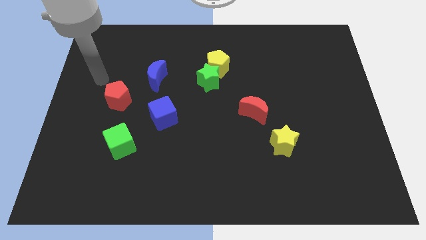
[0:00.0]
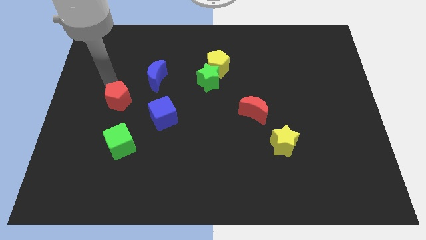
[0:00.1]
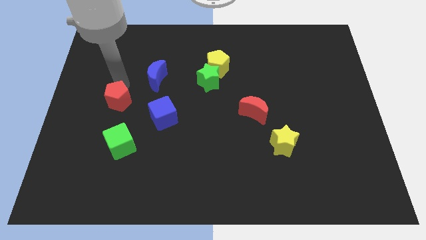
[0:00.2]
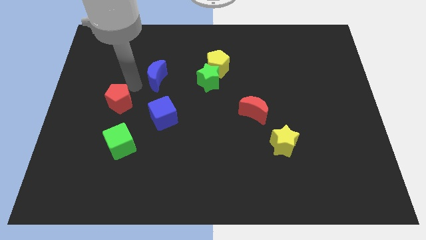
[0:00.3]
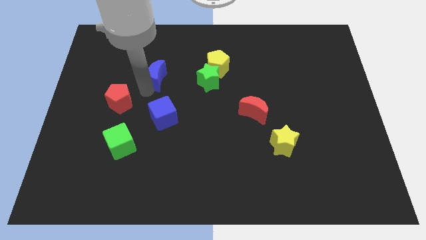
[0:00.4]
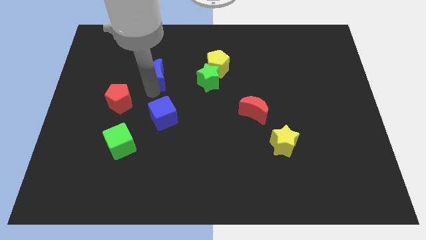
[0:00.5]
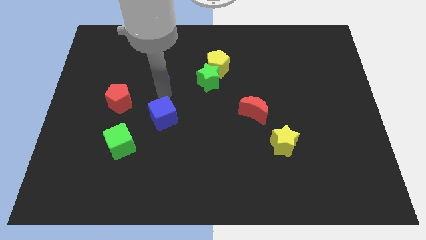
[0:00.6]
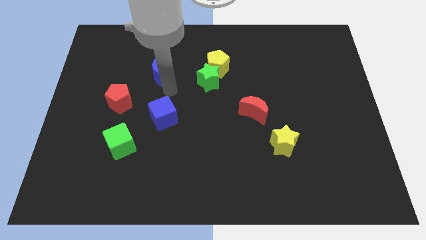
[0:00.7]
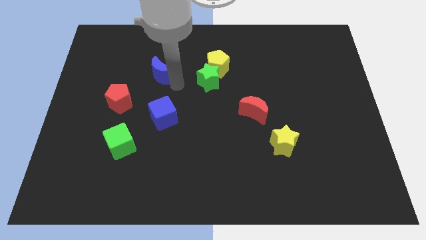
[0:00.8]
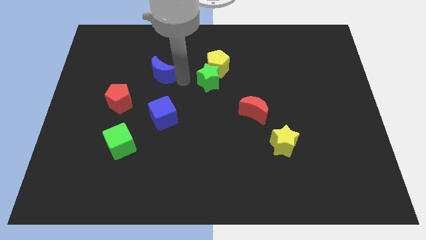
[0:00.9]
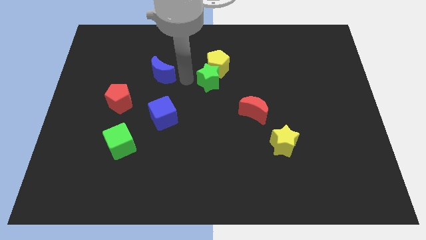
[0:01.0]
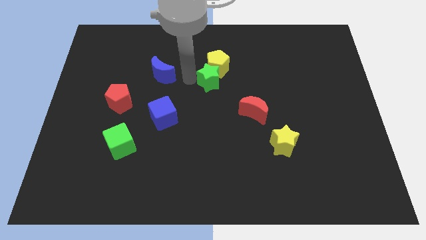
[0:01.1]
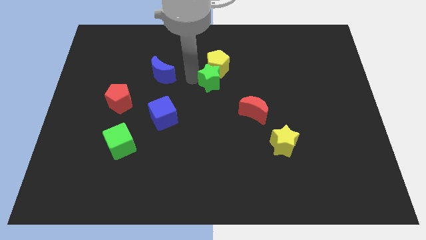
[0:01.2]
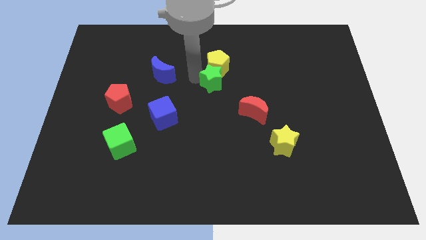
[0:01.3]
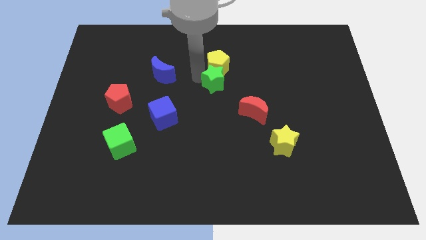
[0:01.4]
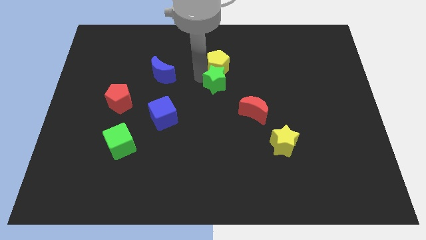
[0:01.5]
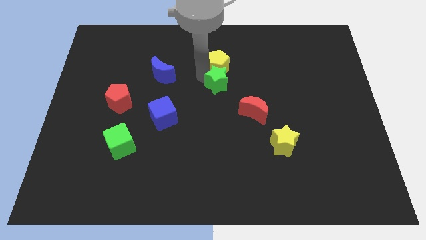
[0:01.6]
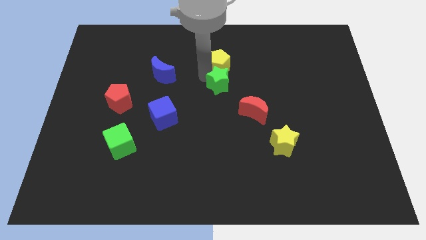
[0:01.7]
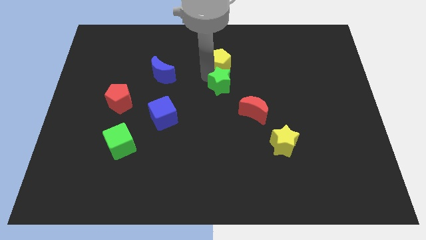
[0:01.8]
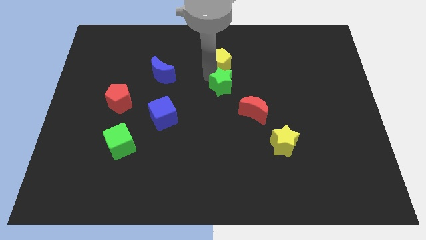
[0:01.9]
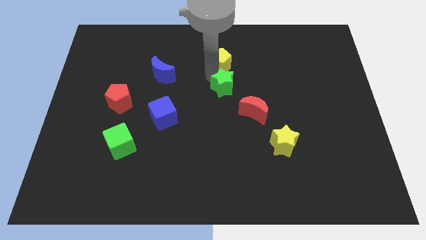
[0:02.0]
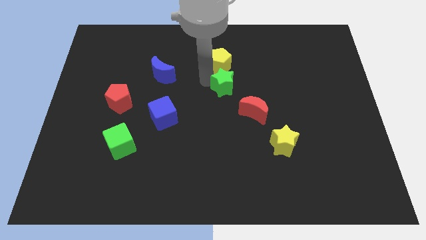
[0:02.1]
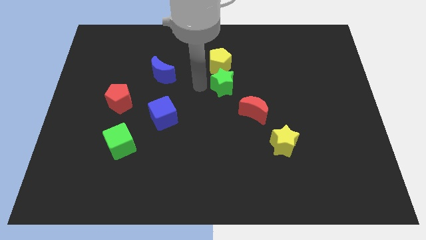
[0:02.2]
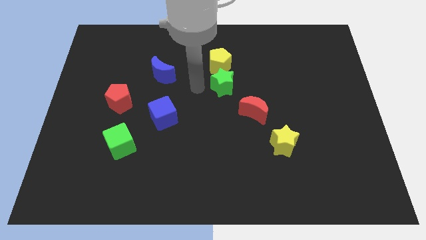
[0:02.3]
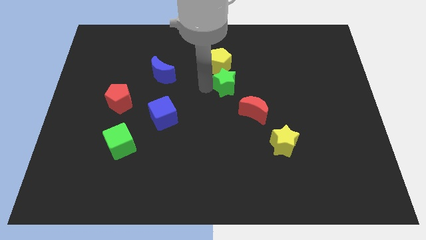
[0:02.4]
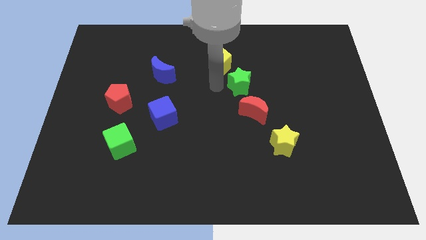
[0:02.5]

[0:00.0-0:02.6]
slightly move the green star to the right

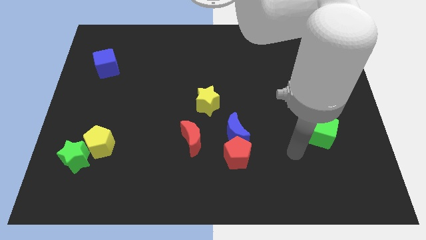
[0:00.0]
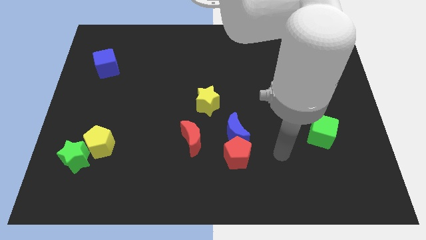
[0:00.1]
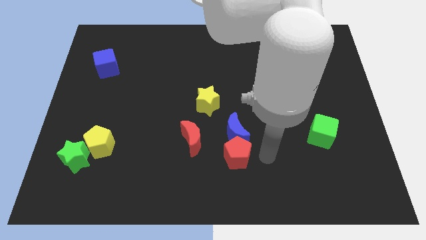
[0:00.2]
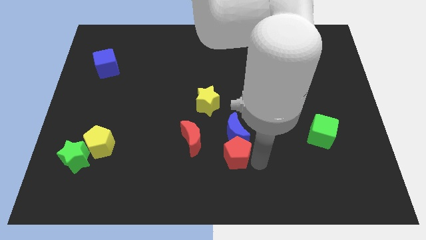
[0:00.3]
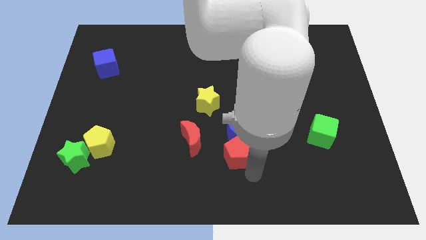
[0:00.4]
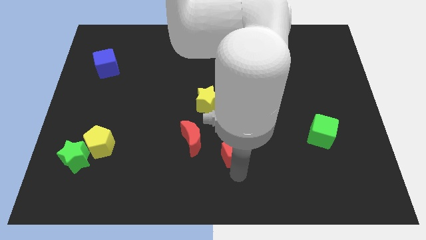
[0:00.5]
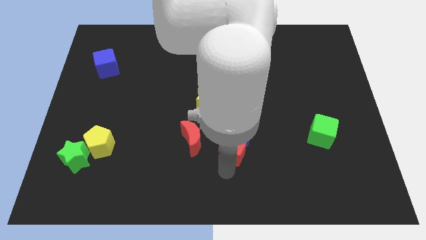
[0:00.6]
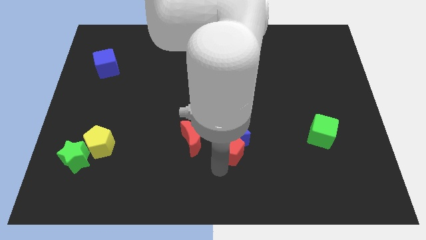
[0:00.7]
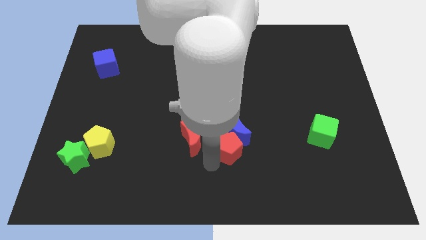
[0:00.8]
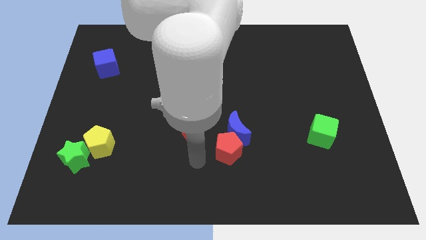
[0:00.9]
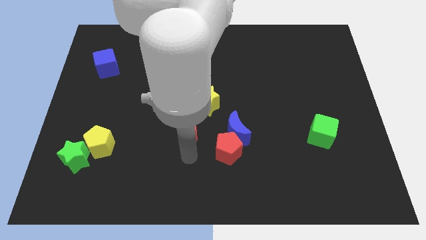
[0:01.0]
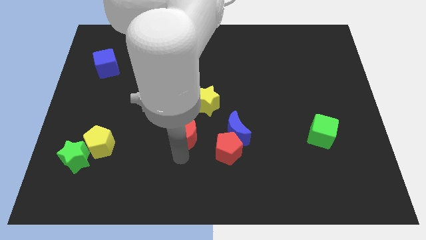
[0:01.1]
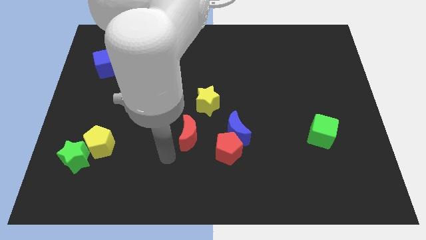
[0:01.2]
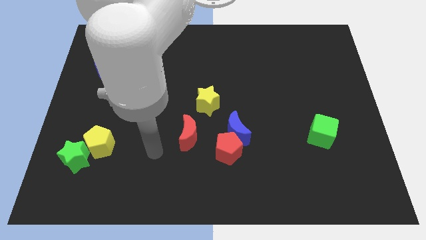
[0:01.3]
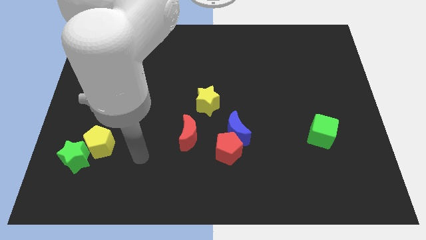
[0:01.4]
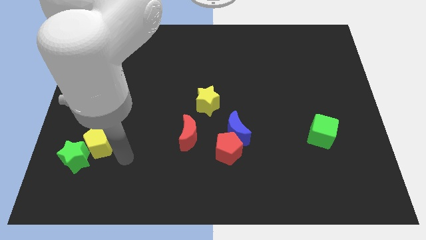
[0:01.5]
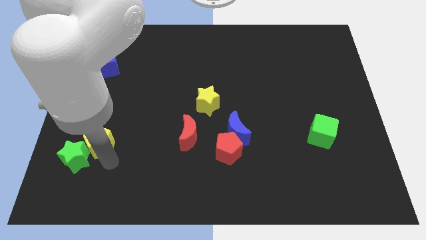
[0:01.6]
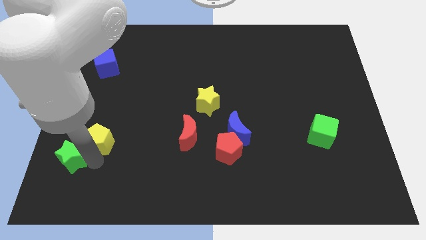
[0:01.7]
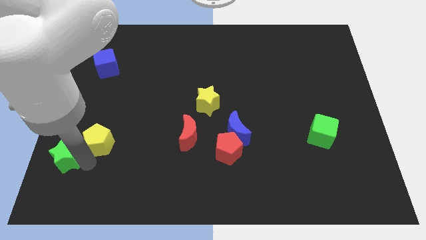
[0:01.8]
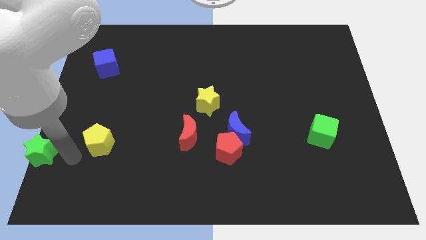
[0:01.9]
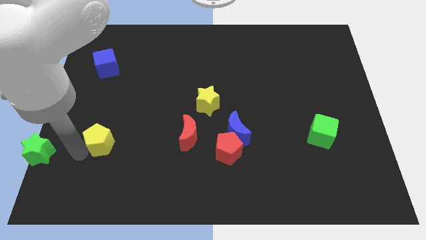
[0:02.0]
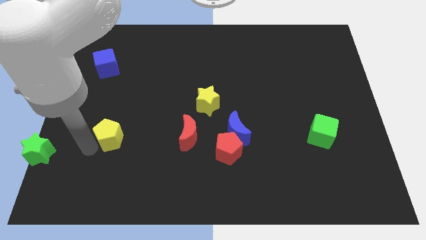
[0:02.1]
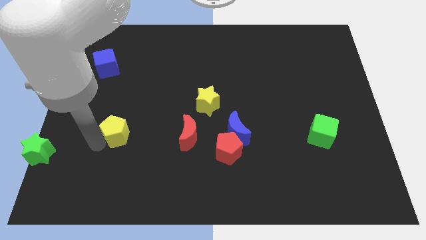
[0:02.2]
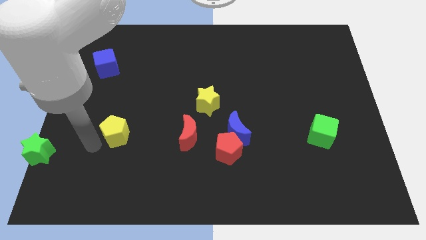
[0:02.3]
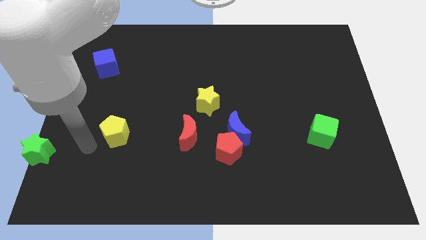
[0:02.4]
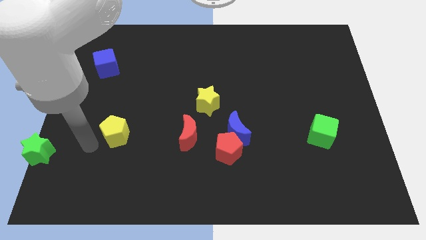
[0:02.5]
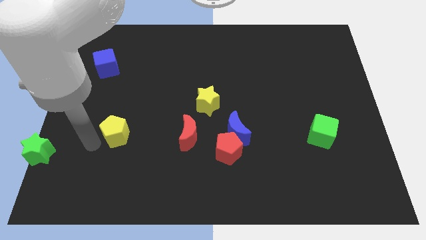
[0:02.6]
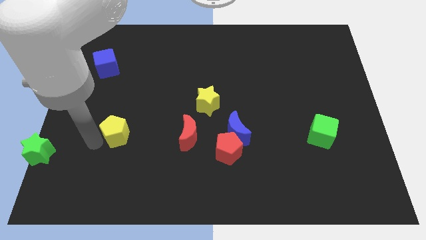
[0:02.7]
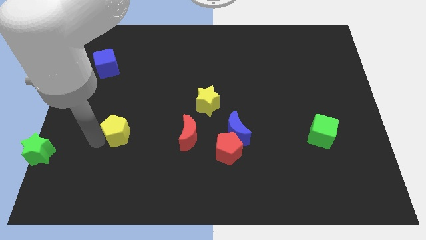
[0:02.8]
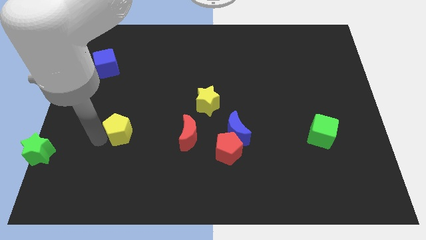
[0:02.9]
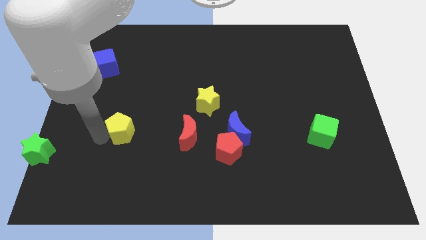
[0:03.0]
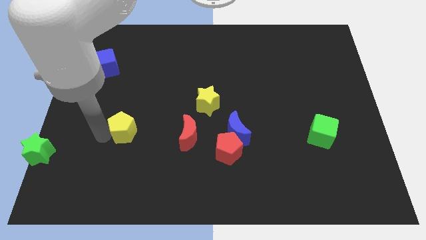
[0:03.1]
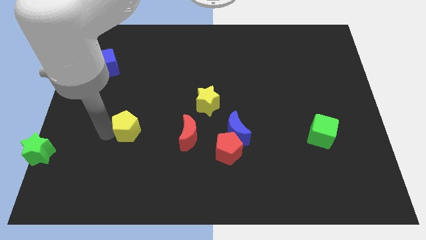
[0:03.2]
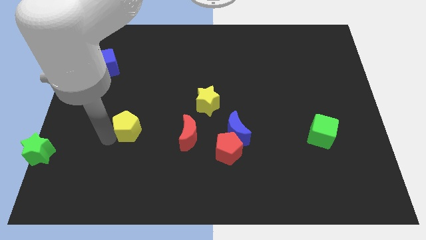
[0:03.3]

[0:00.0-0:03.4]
slightly slide the yellow pentagon diagonally upwards and right

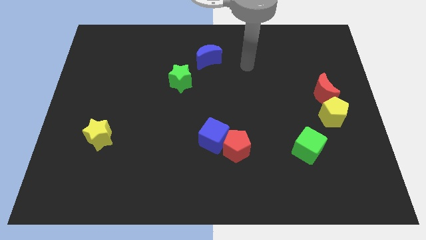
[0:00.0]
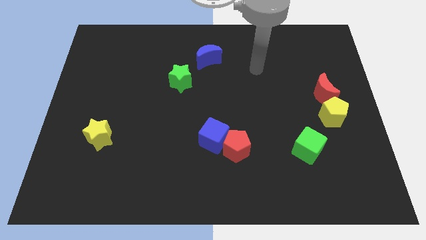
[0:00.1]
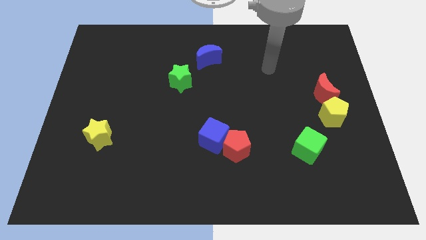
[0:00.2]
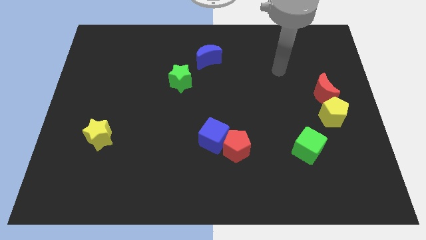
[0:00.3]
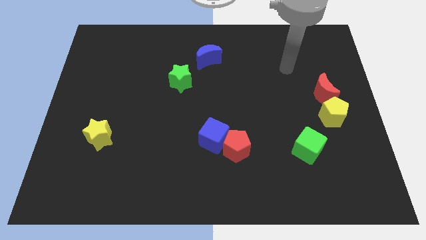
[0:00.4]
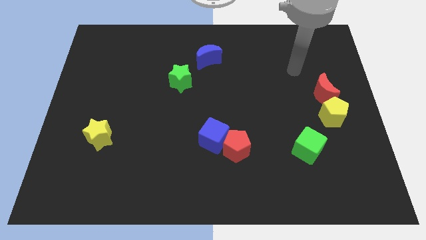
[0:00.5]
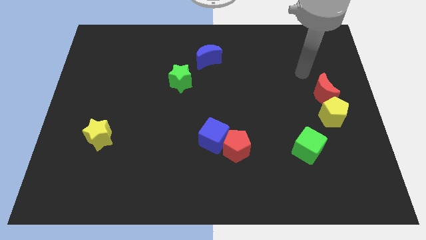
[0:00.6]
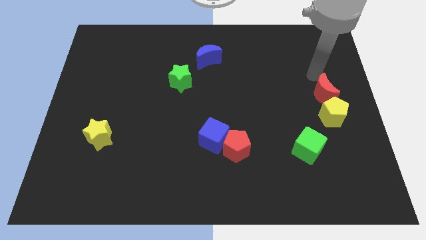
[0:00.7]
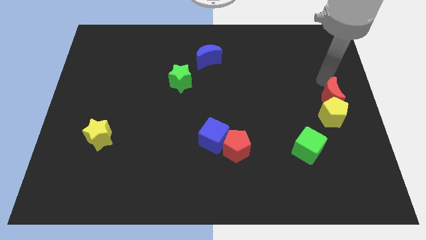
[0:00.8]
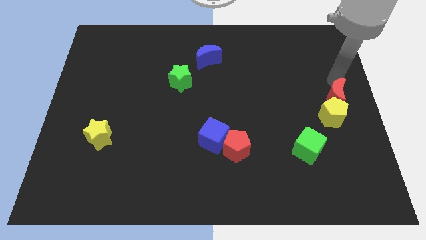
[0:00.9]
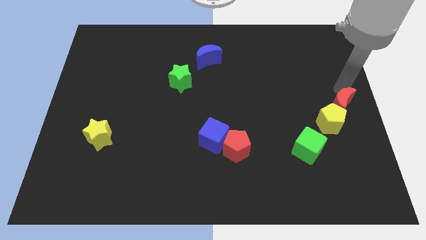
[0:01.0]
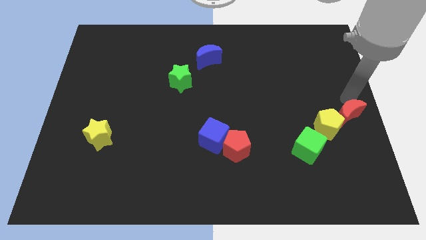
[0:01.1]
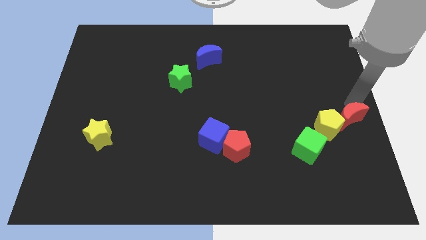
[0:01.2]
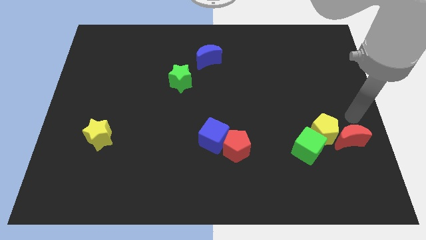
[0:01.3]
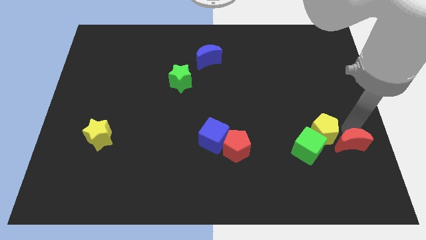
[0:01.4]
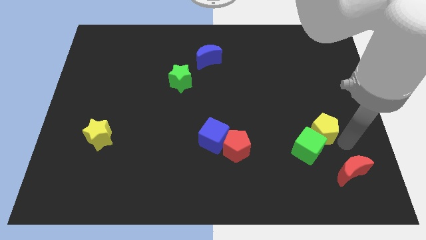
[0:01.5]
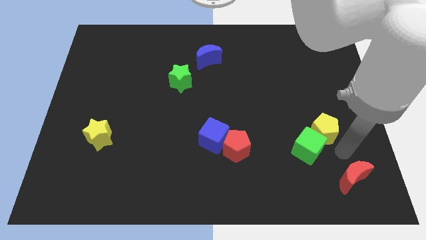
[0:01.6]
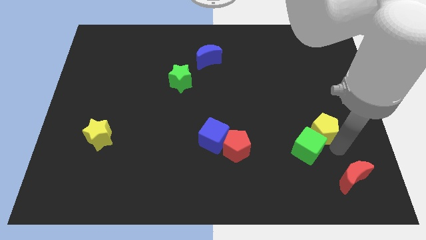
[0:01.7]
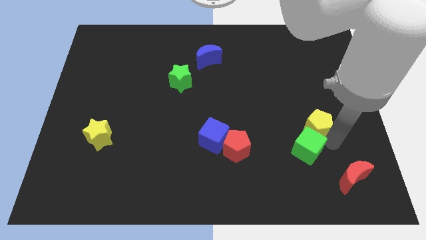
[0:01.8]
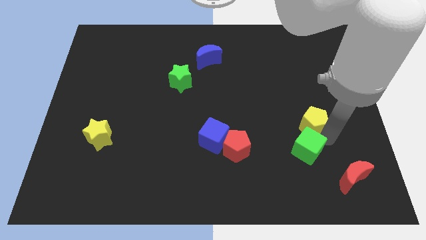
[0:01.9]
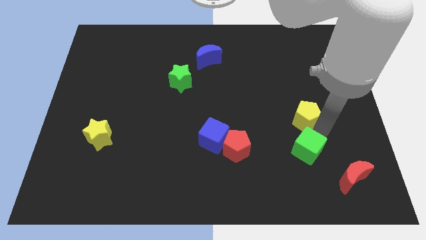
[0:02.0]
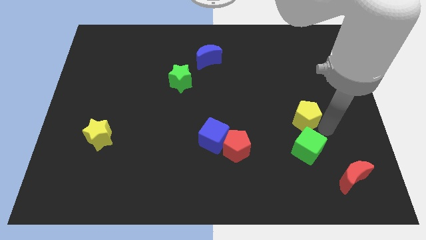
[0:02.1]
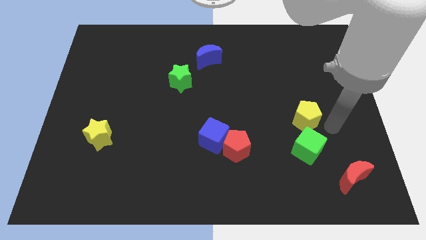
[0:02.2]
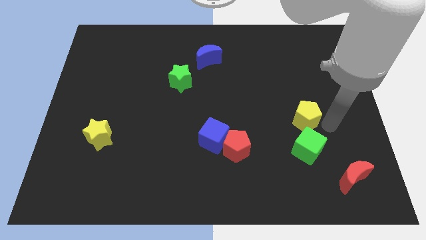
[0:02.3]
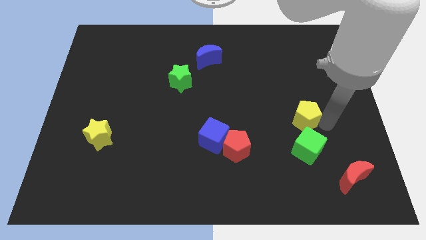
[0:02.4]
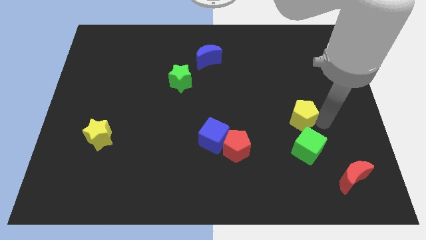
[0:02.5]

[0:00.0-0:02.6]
slightly move the yellow pentagon to the left
